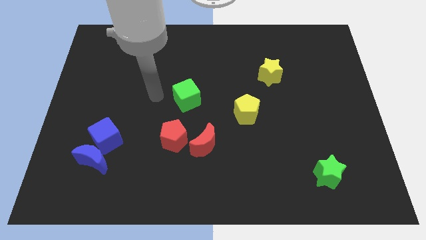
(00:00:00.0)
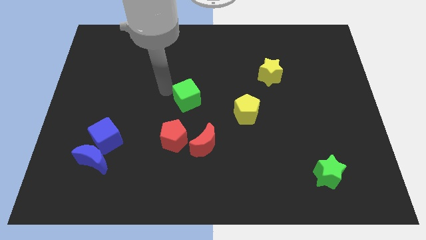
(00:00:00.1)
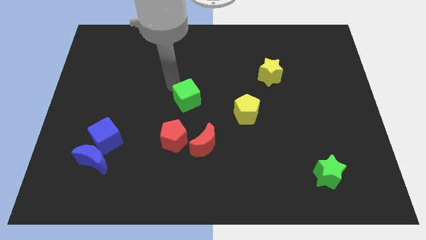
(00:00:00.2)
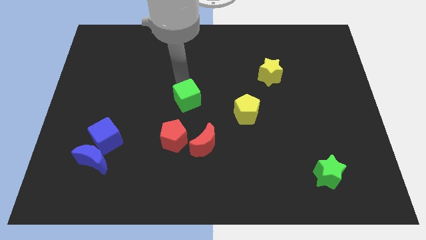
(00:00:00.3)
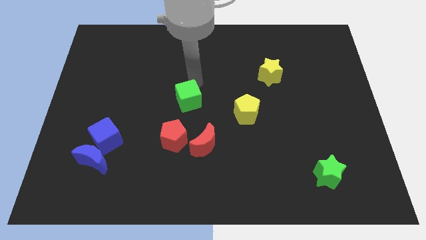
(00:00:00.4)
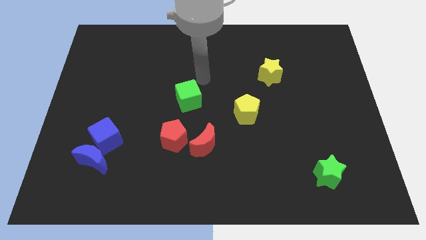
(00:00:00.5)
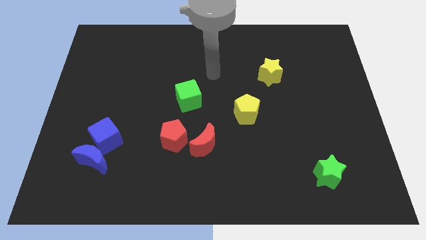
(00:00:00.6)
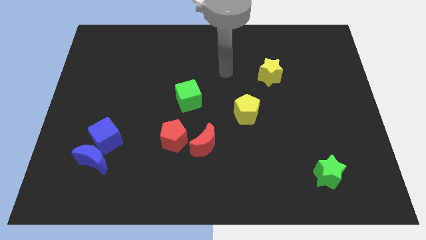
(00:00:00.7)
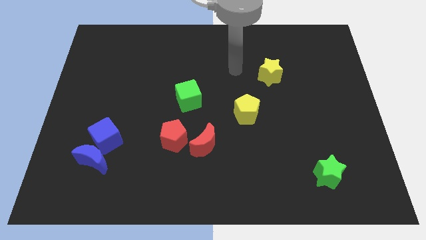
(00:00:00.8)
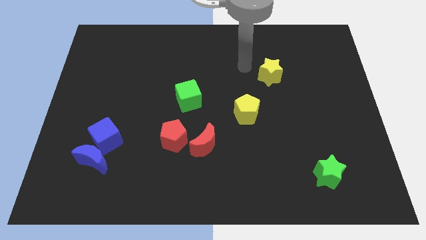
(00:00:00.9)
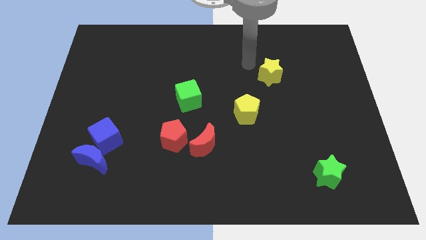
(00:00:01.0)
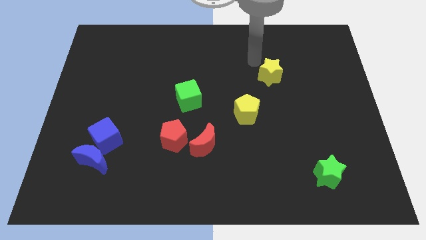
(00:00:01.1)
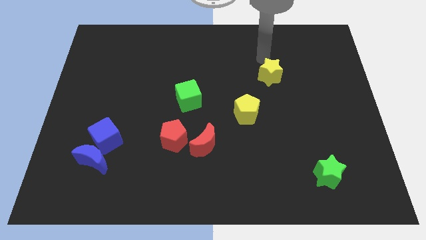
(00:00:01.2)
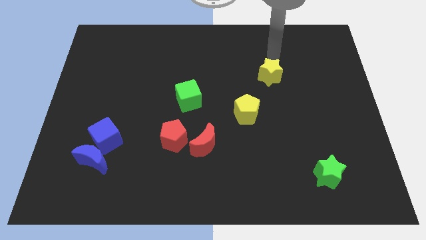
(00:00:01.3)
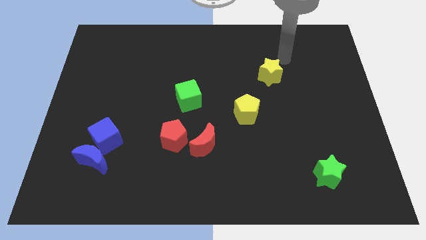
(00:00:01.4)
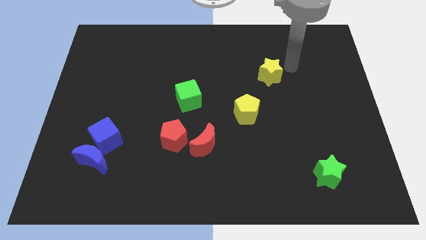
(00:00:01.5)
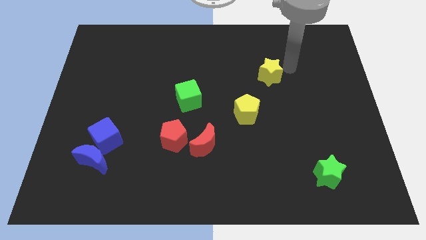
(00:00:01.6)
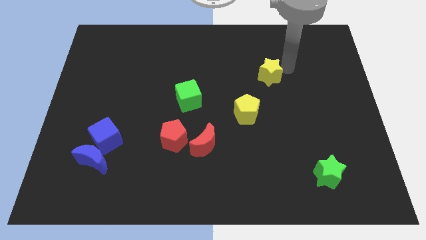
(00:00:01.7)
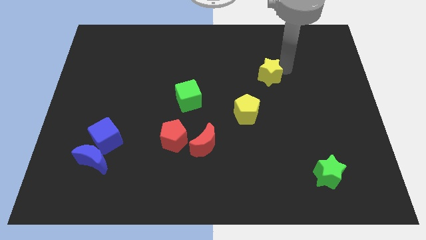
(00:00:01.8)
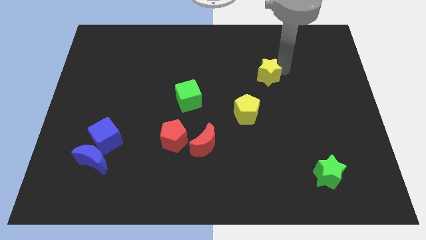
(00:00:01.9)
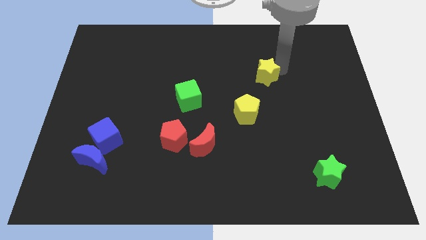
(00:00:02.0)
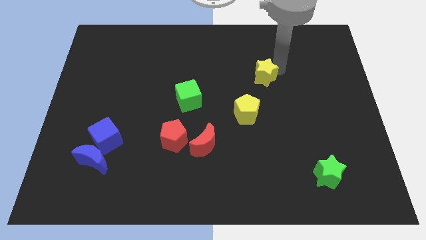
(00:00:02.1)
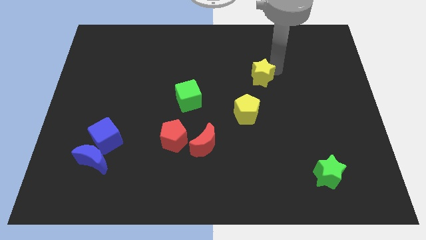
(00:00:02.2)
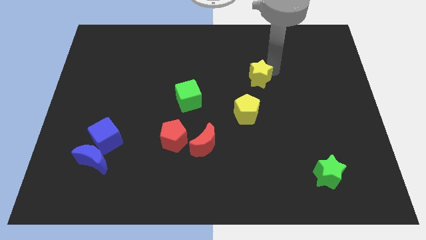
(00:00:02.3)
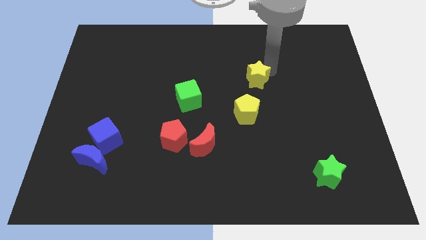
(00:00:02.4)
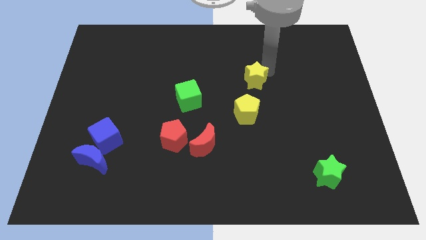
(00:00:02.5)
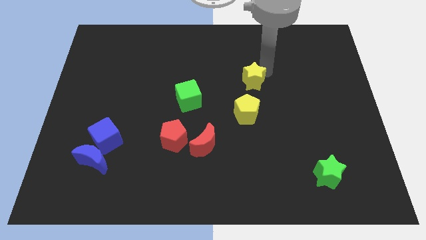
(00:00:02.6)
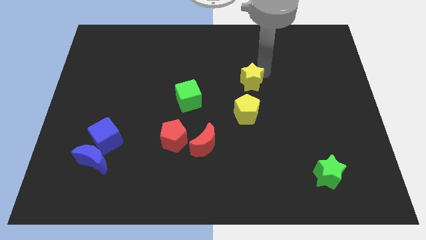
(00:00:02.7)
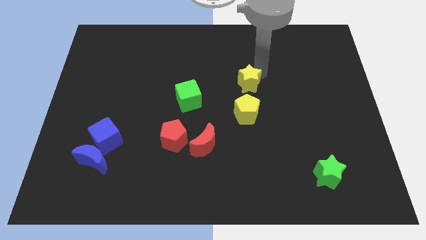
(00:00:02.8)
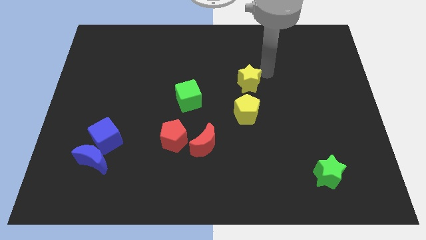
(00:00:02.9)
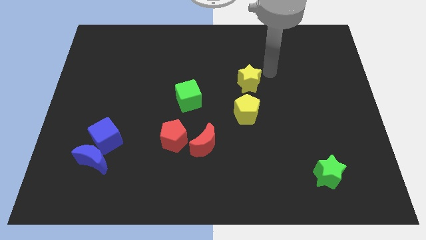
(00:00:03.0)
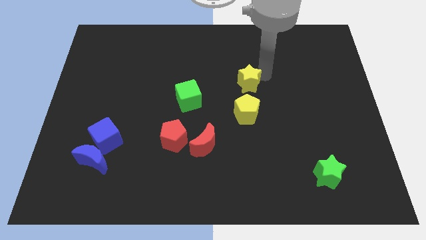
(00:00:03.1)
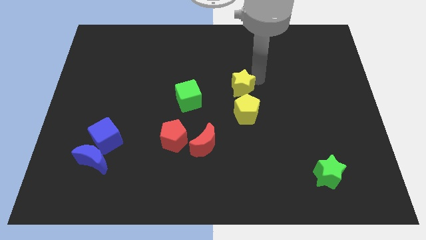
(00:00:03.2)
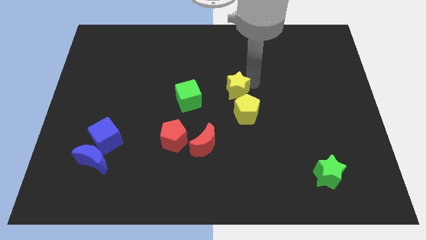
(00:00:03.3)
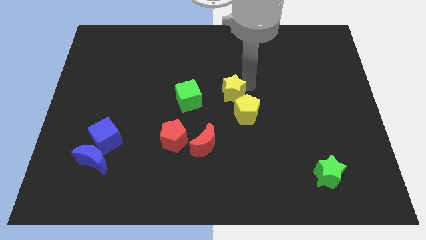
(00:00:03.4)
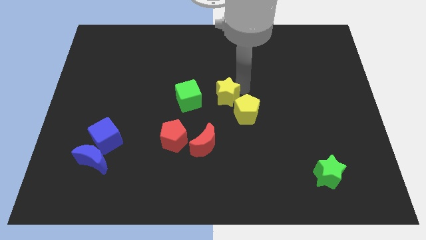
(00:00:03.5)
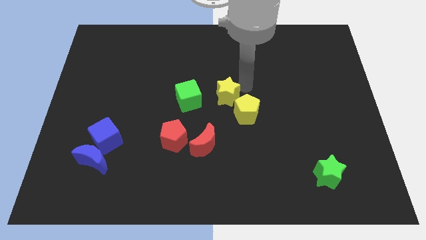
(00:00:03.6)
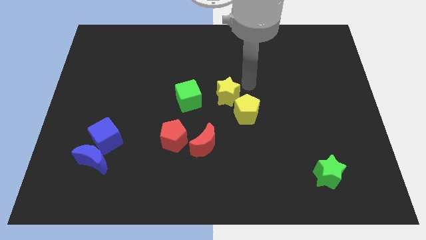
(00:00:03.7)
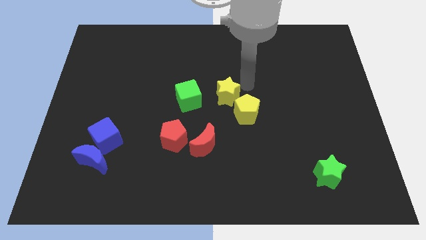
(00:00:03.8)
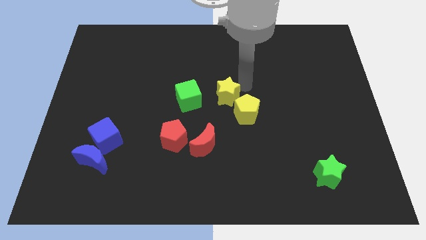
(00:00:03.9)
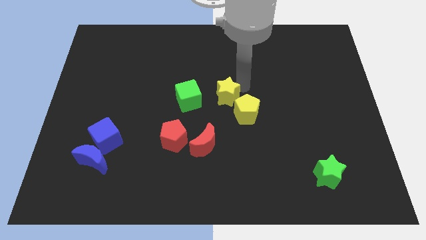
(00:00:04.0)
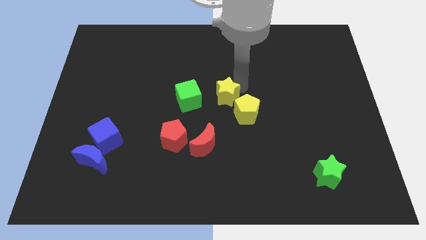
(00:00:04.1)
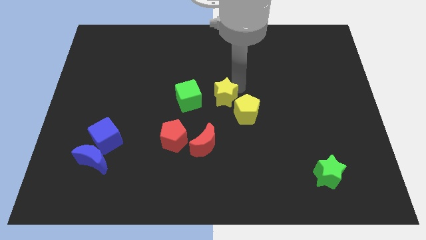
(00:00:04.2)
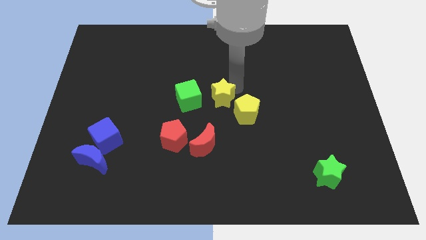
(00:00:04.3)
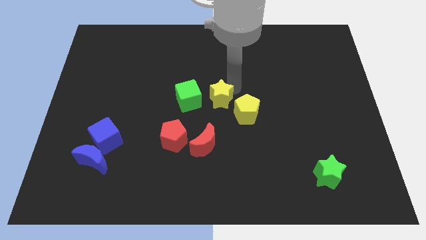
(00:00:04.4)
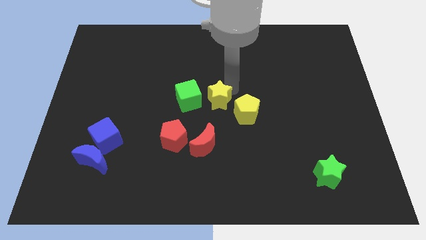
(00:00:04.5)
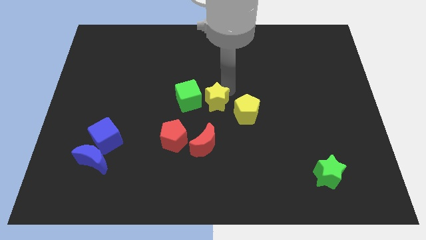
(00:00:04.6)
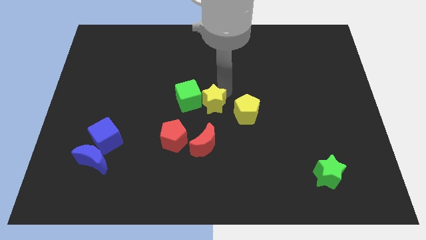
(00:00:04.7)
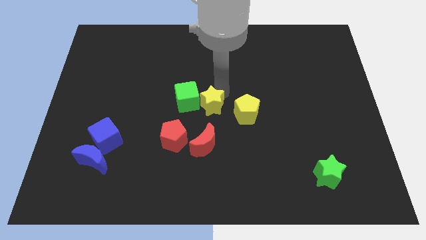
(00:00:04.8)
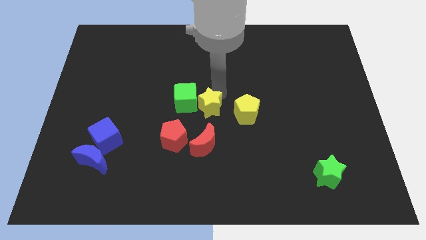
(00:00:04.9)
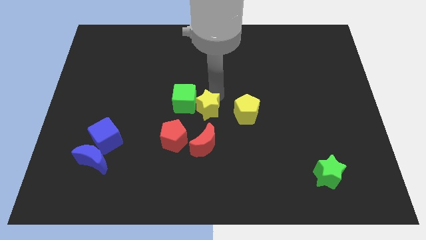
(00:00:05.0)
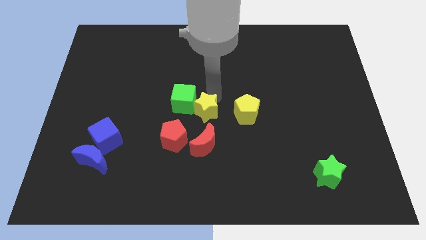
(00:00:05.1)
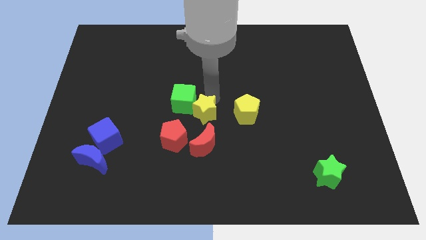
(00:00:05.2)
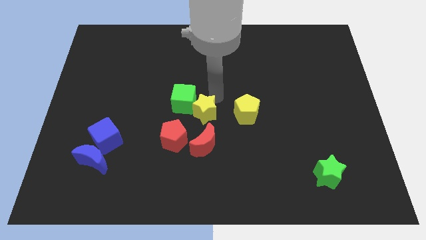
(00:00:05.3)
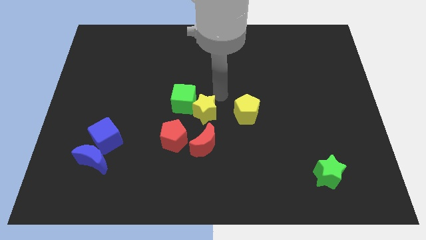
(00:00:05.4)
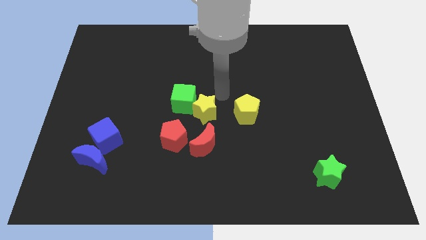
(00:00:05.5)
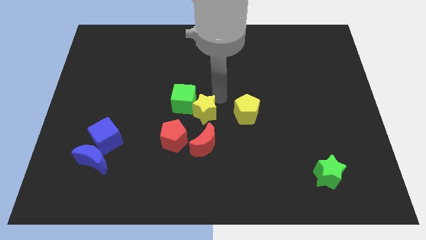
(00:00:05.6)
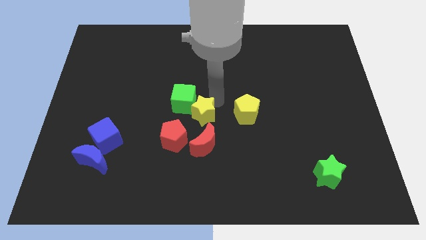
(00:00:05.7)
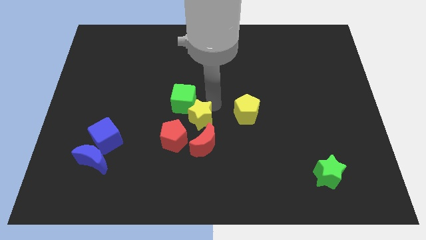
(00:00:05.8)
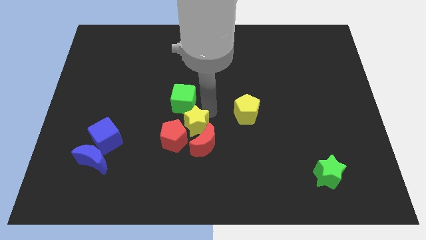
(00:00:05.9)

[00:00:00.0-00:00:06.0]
move the yellow star towards the red pentagon

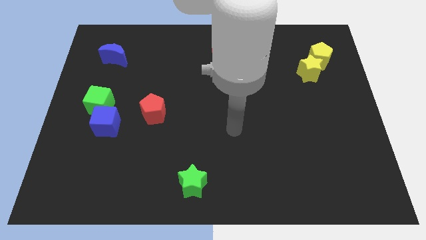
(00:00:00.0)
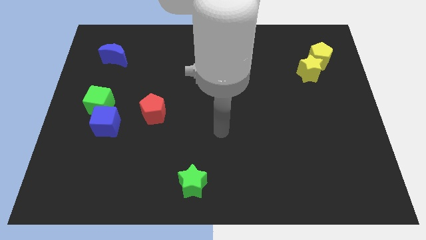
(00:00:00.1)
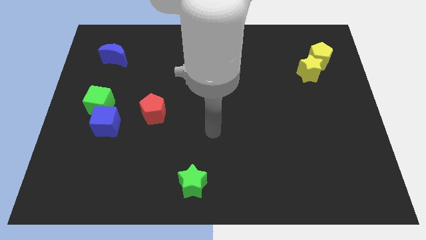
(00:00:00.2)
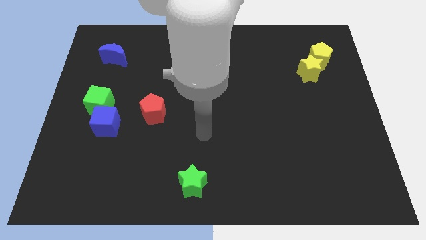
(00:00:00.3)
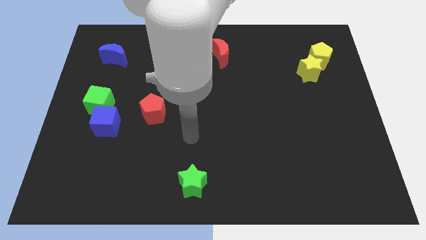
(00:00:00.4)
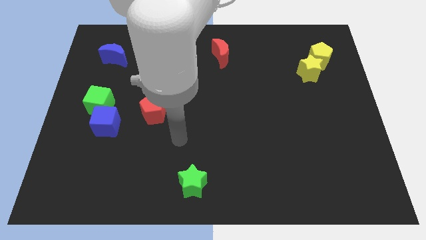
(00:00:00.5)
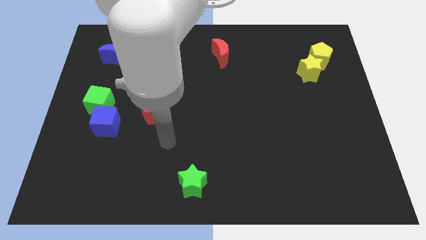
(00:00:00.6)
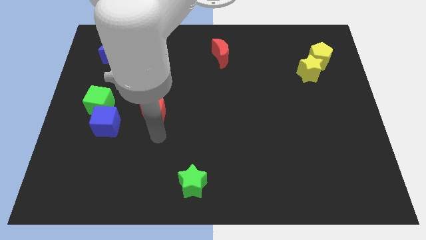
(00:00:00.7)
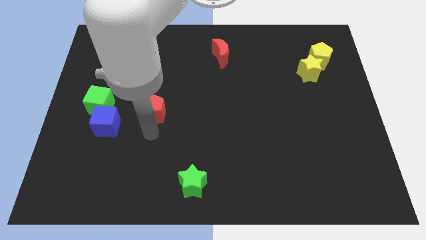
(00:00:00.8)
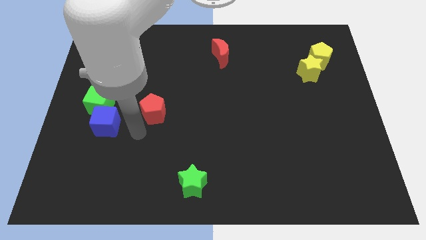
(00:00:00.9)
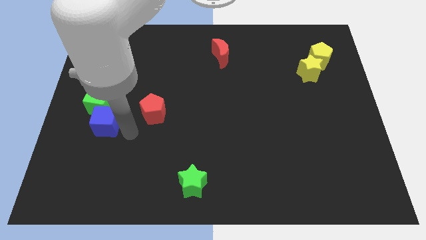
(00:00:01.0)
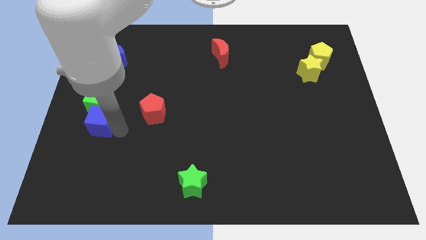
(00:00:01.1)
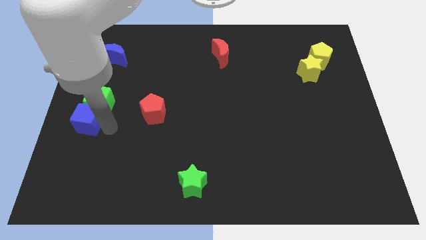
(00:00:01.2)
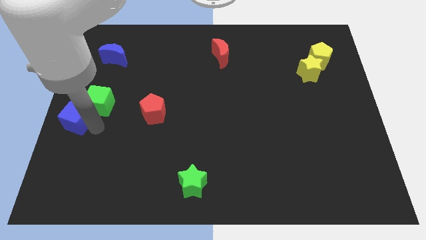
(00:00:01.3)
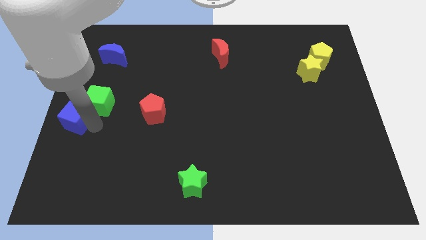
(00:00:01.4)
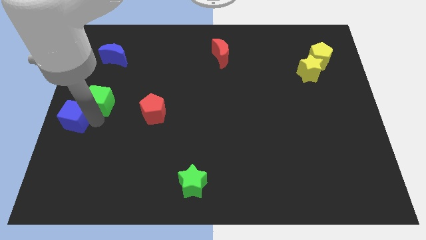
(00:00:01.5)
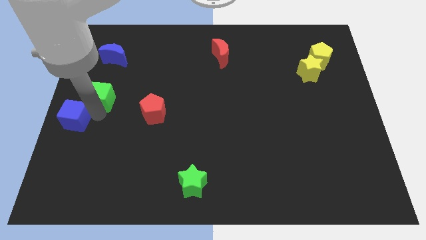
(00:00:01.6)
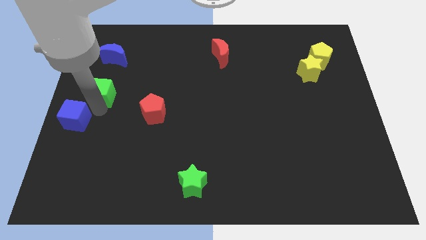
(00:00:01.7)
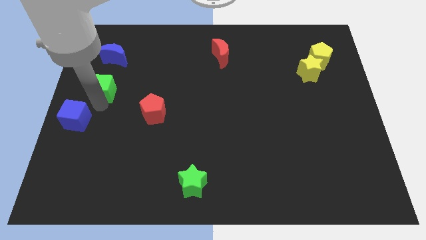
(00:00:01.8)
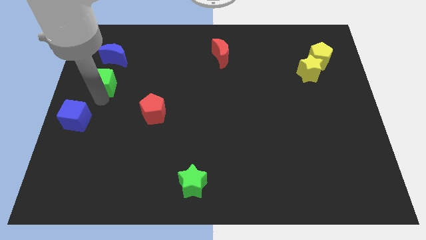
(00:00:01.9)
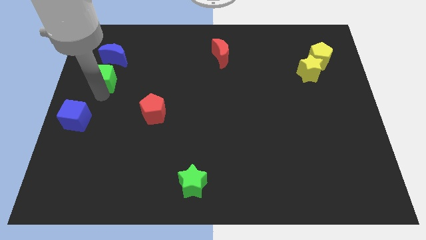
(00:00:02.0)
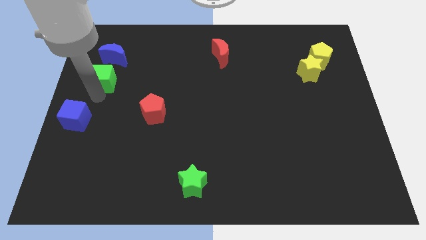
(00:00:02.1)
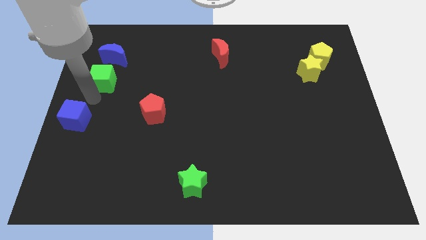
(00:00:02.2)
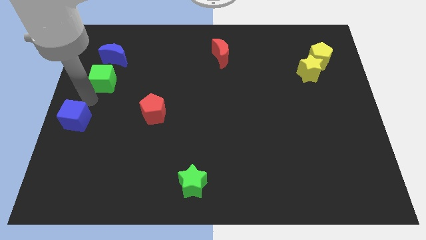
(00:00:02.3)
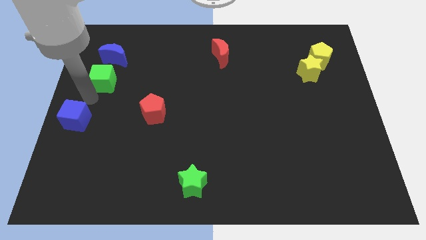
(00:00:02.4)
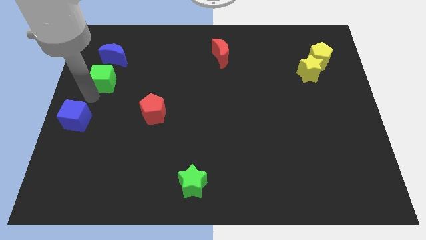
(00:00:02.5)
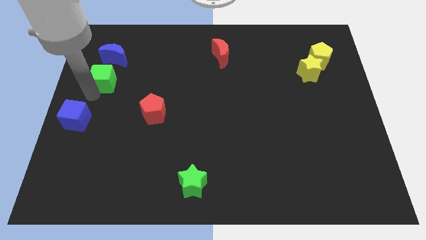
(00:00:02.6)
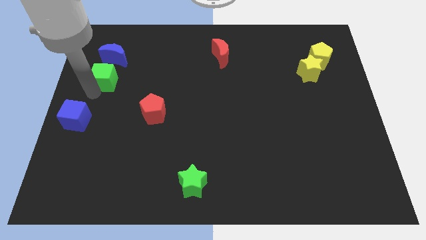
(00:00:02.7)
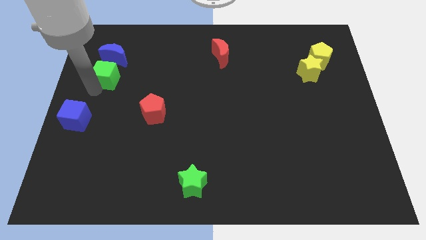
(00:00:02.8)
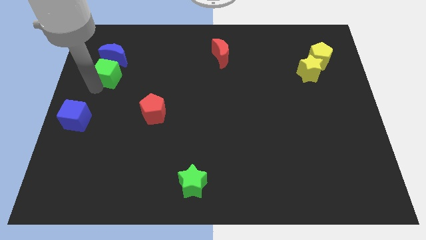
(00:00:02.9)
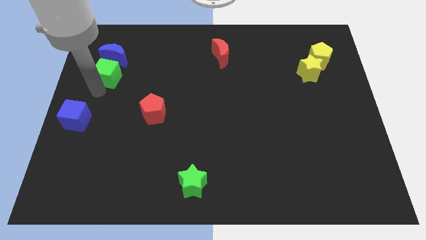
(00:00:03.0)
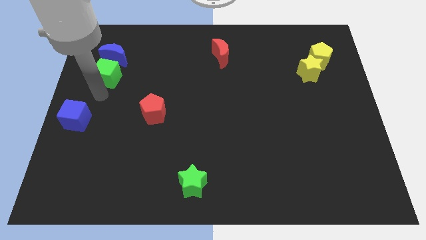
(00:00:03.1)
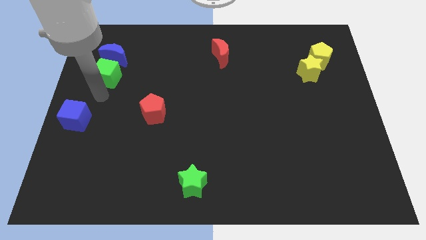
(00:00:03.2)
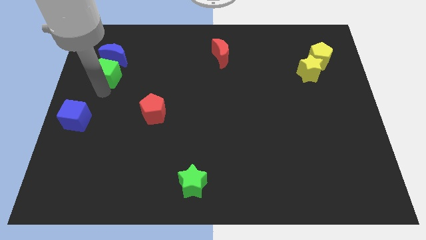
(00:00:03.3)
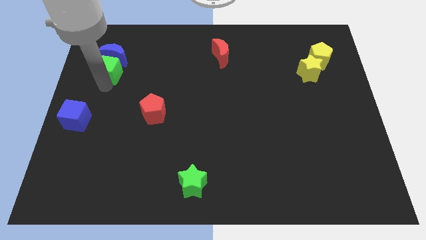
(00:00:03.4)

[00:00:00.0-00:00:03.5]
put the green cube towards the blue moon
